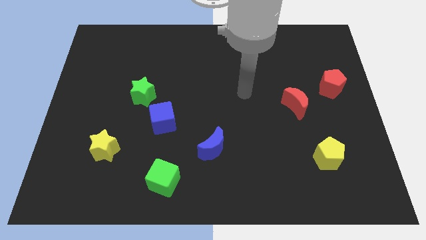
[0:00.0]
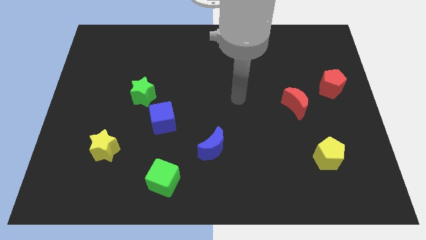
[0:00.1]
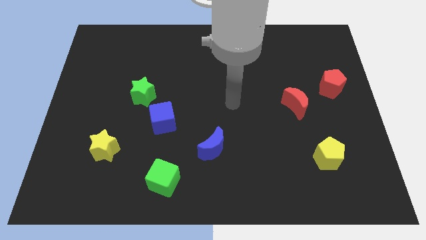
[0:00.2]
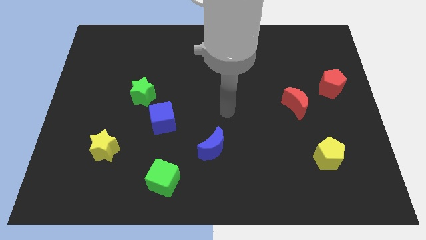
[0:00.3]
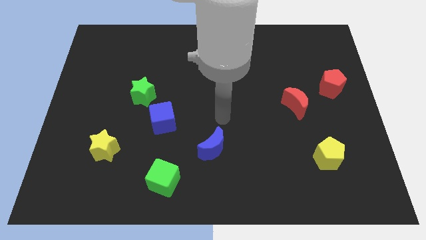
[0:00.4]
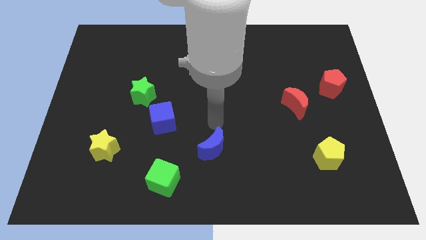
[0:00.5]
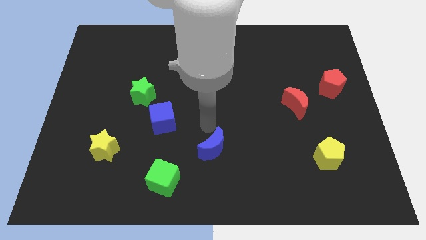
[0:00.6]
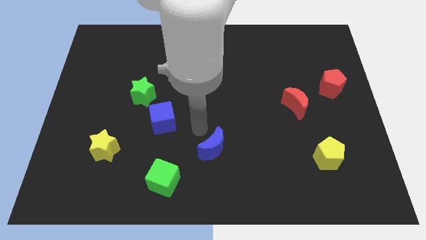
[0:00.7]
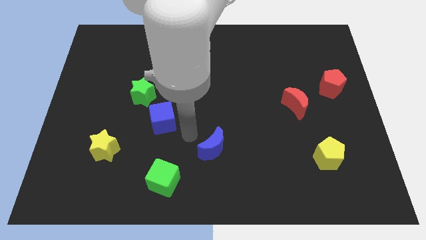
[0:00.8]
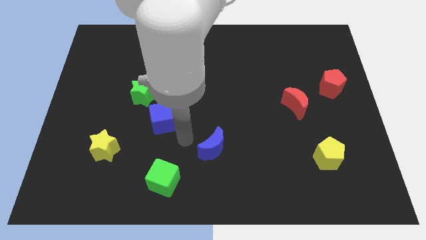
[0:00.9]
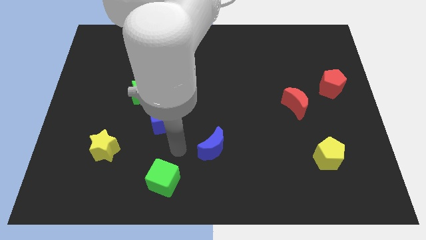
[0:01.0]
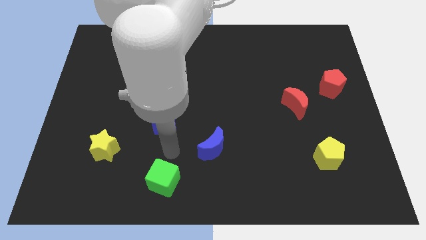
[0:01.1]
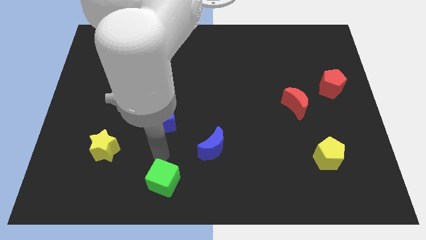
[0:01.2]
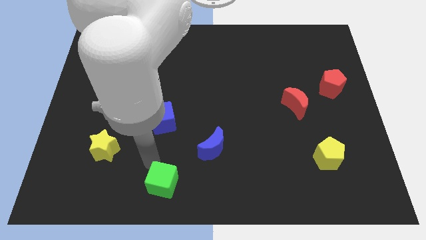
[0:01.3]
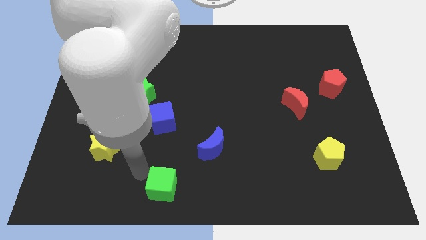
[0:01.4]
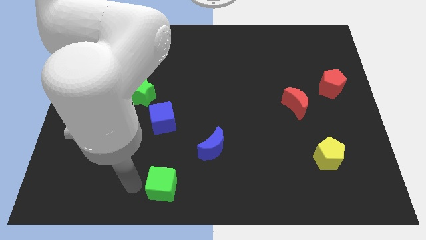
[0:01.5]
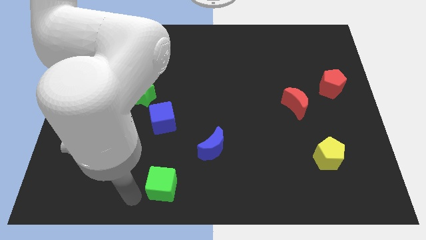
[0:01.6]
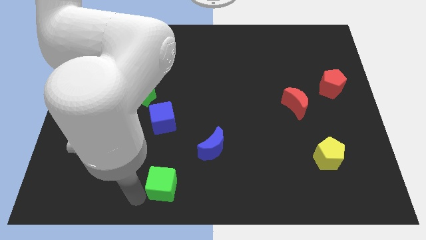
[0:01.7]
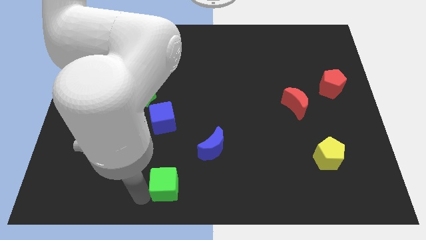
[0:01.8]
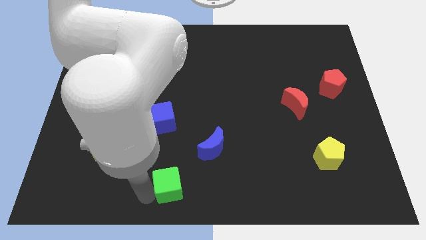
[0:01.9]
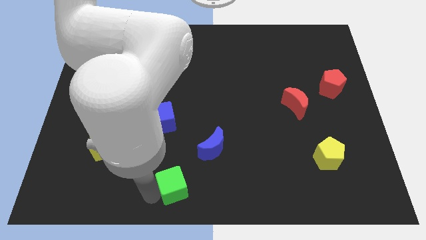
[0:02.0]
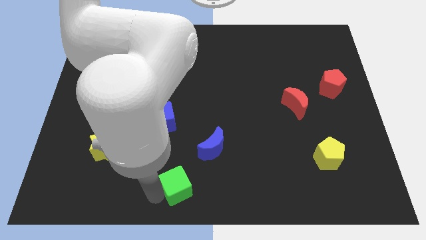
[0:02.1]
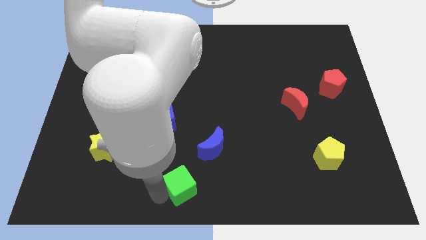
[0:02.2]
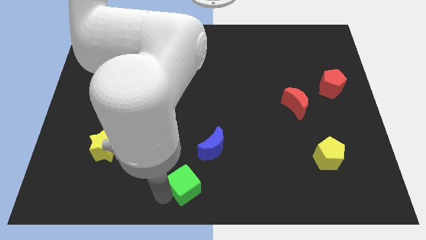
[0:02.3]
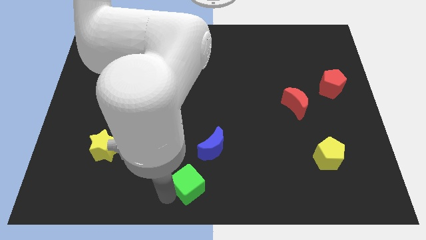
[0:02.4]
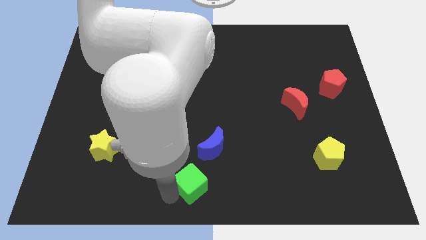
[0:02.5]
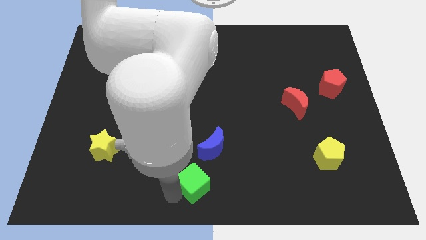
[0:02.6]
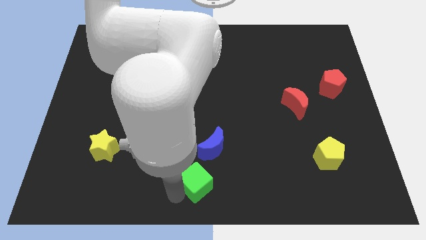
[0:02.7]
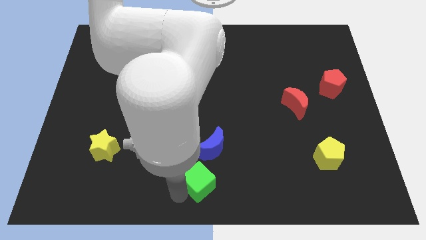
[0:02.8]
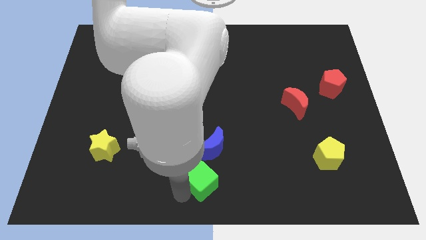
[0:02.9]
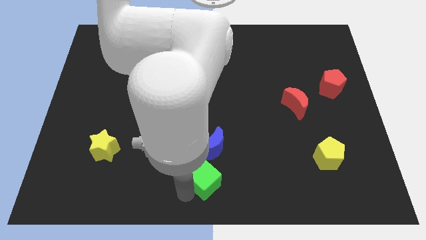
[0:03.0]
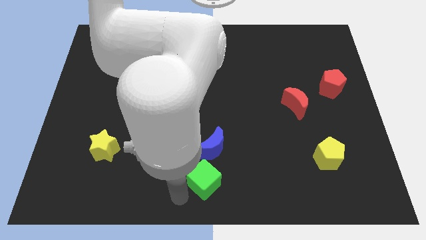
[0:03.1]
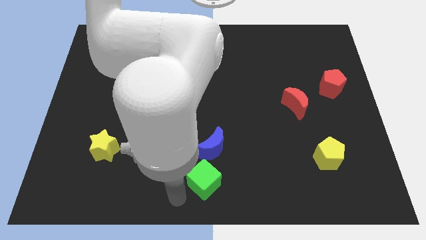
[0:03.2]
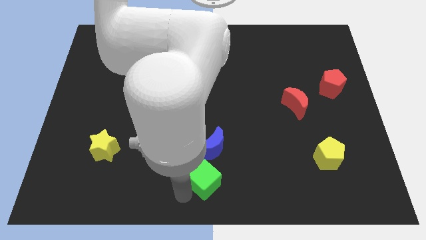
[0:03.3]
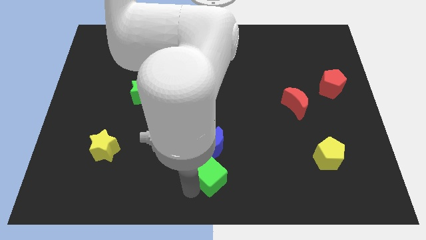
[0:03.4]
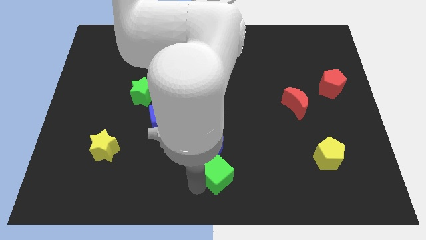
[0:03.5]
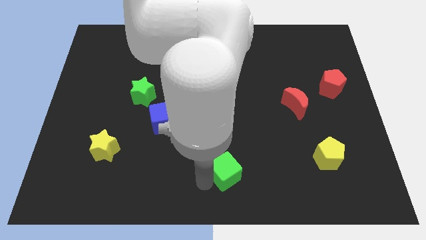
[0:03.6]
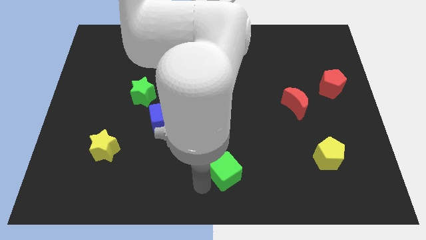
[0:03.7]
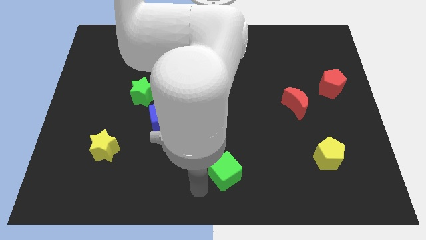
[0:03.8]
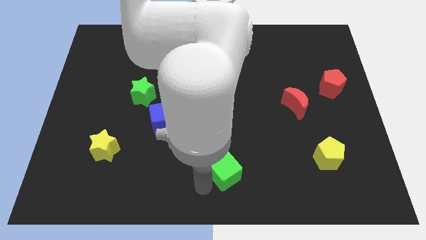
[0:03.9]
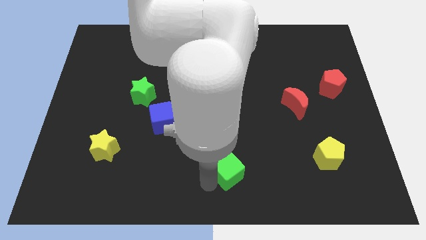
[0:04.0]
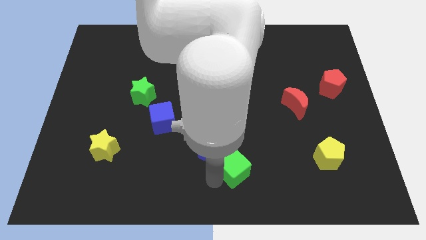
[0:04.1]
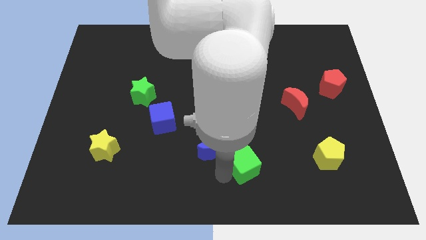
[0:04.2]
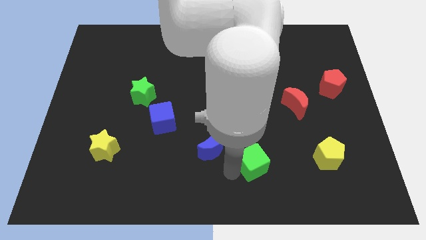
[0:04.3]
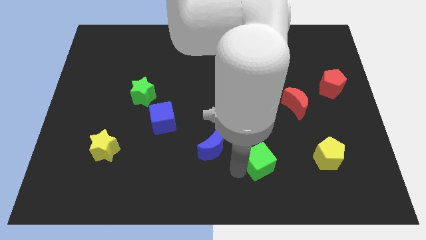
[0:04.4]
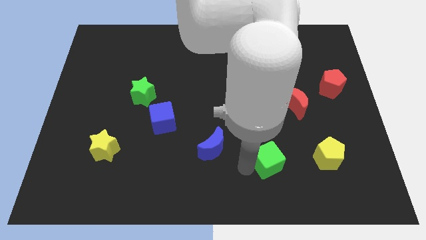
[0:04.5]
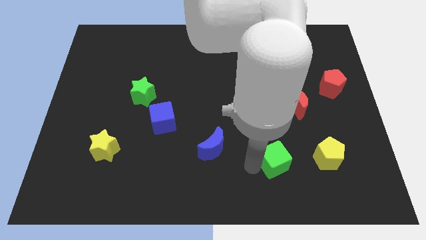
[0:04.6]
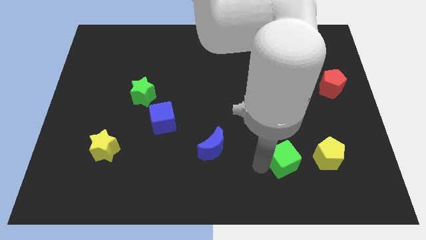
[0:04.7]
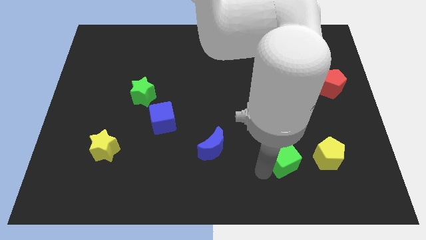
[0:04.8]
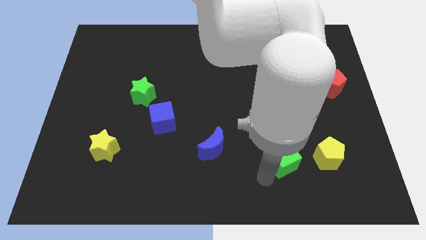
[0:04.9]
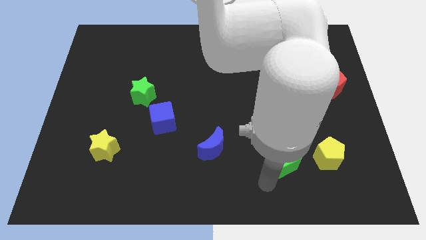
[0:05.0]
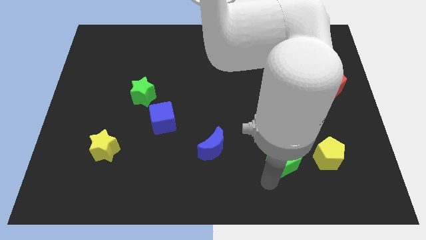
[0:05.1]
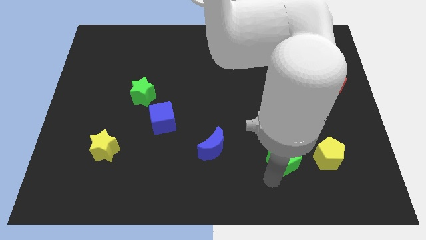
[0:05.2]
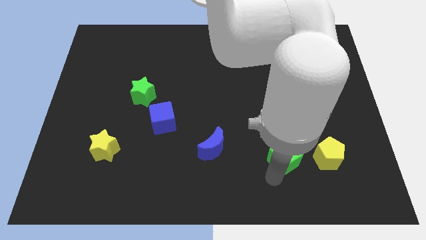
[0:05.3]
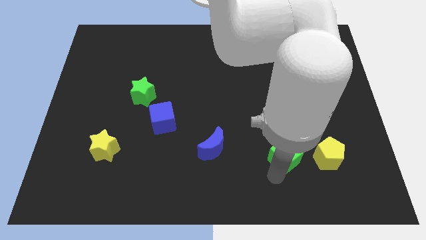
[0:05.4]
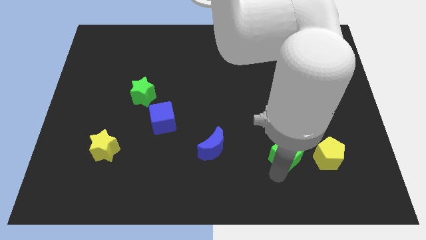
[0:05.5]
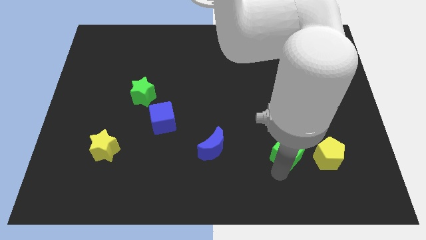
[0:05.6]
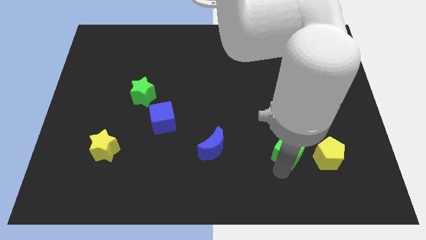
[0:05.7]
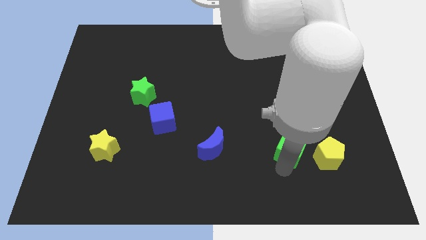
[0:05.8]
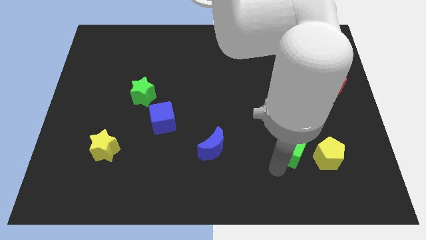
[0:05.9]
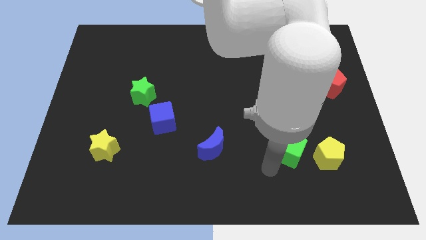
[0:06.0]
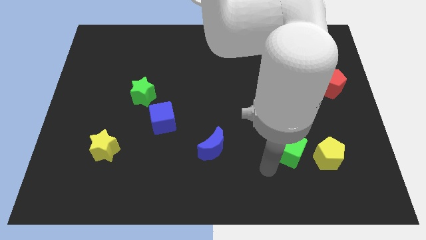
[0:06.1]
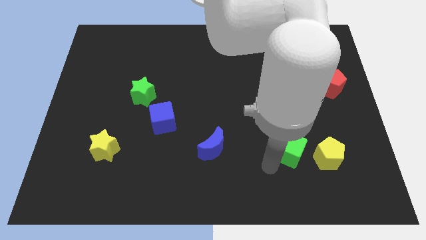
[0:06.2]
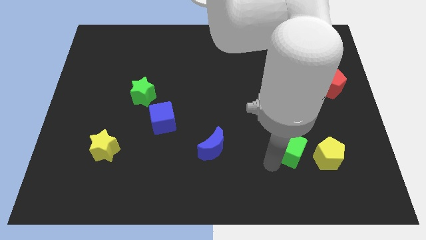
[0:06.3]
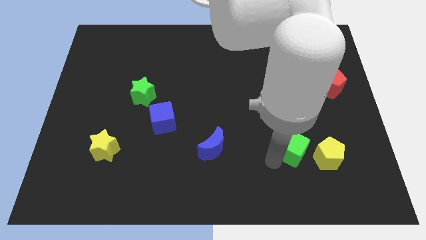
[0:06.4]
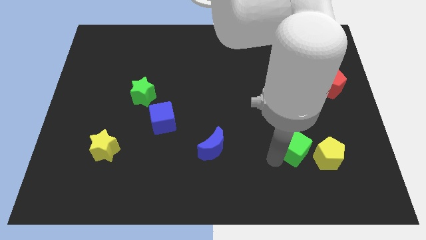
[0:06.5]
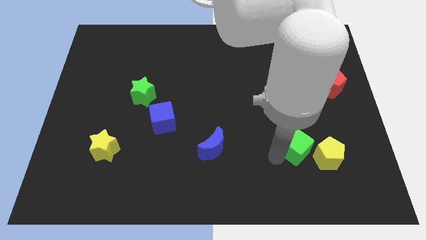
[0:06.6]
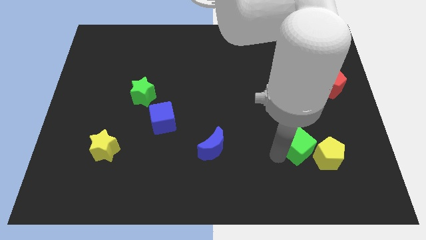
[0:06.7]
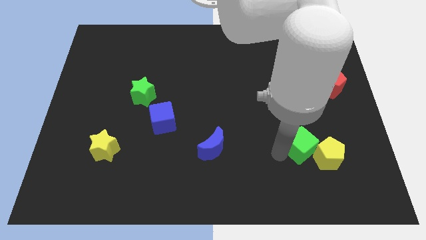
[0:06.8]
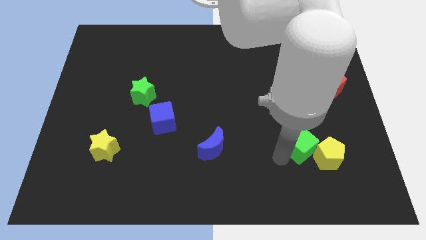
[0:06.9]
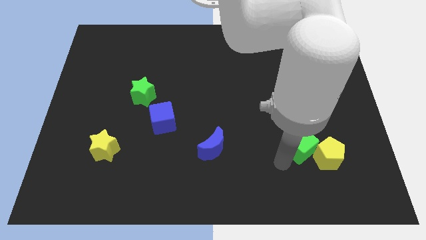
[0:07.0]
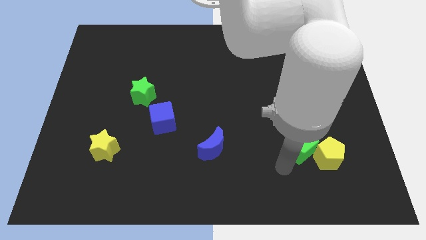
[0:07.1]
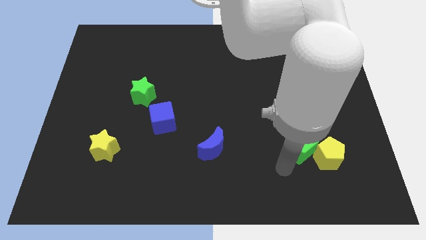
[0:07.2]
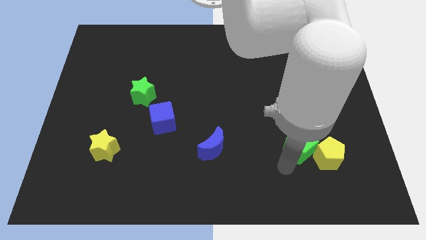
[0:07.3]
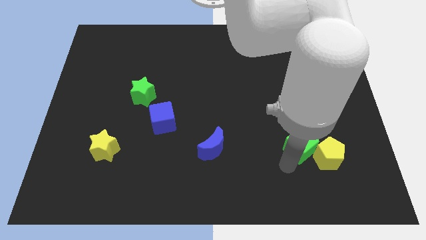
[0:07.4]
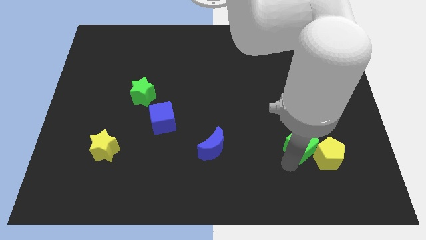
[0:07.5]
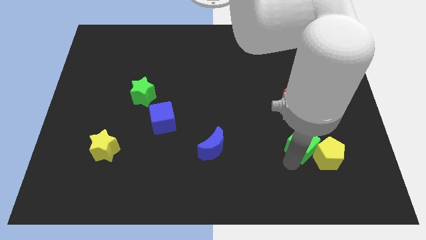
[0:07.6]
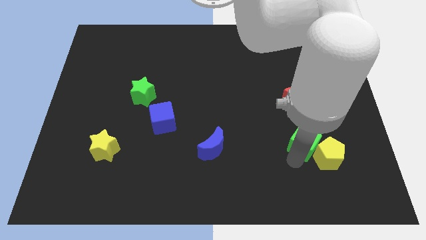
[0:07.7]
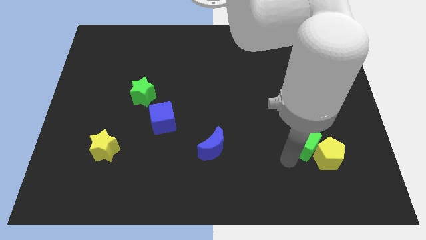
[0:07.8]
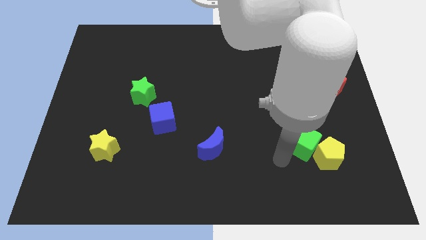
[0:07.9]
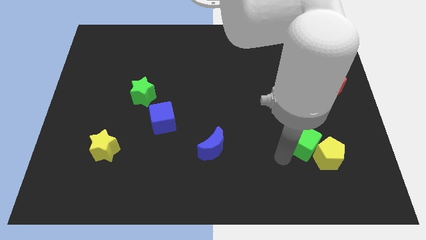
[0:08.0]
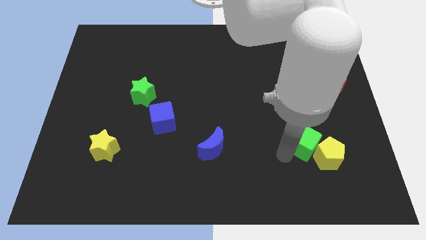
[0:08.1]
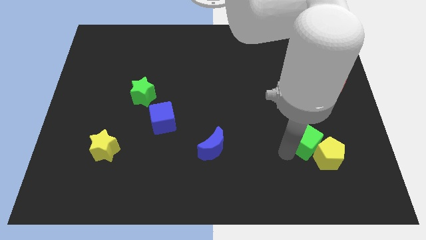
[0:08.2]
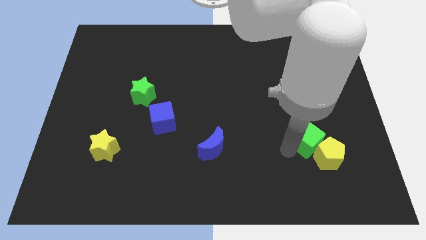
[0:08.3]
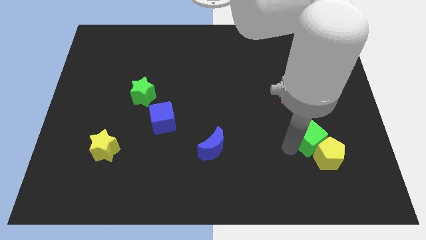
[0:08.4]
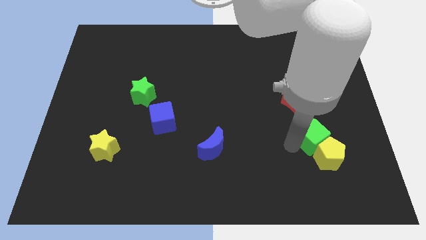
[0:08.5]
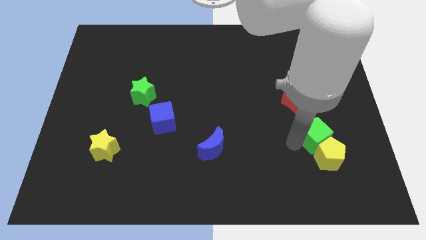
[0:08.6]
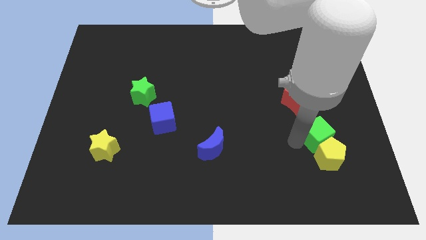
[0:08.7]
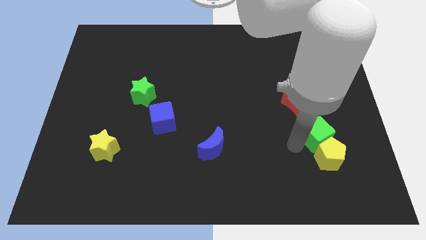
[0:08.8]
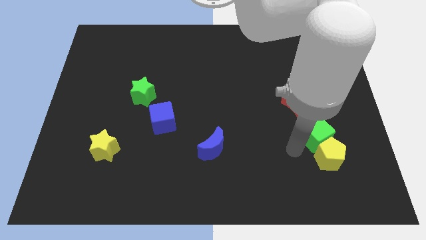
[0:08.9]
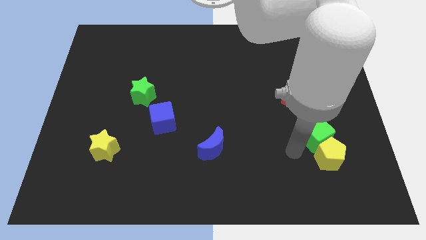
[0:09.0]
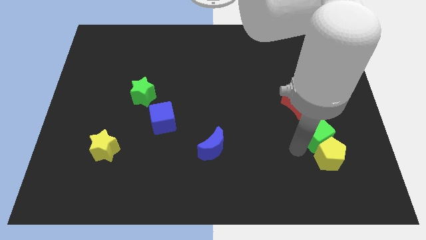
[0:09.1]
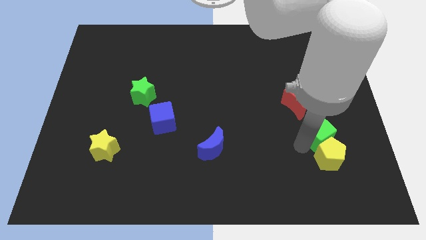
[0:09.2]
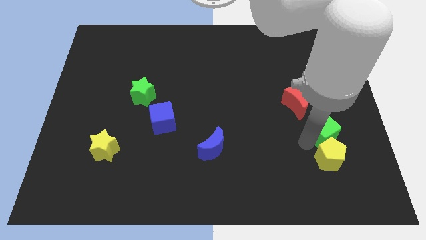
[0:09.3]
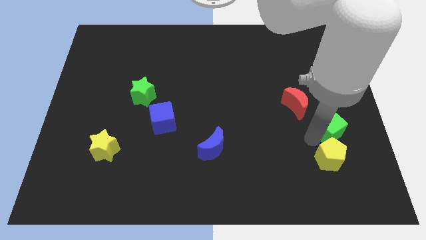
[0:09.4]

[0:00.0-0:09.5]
move the green cube to the bottom of the red pentagon
